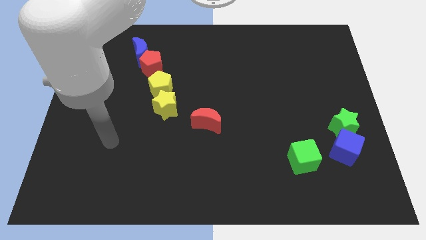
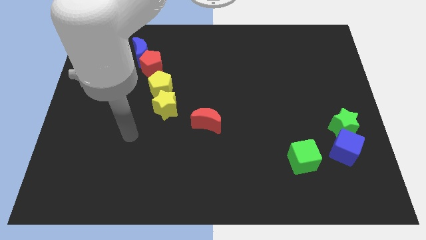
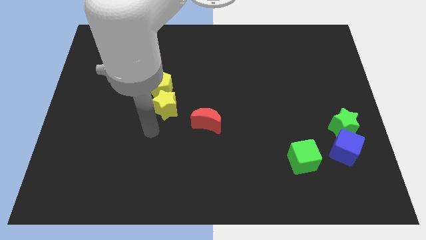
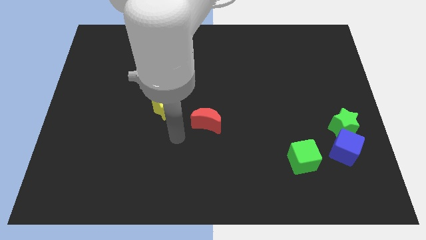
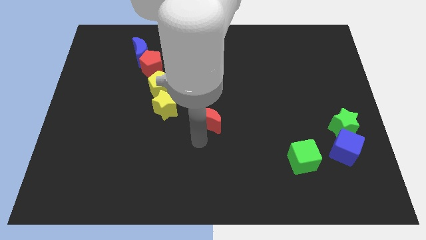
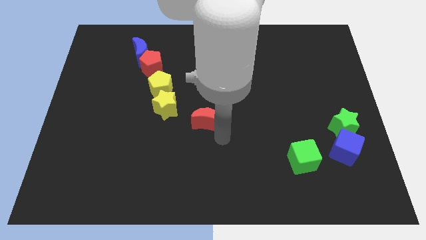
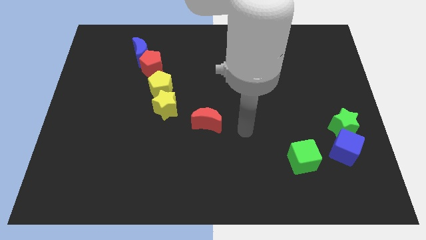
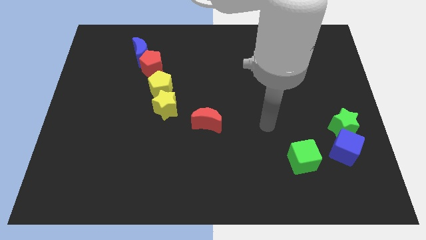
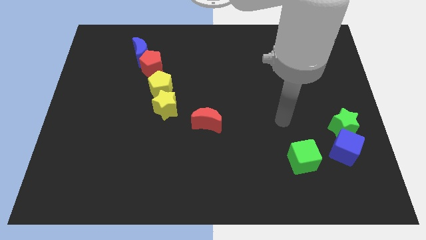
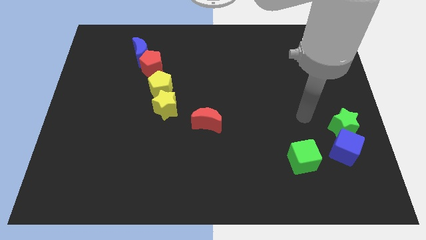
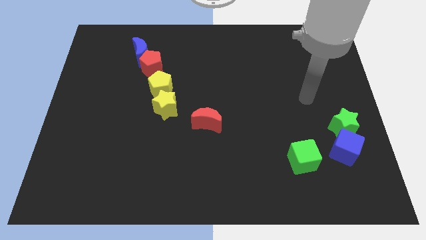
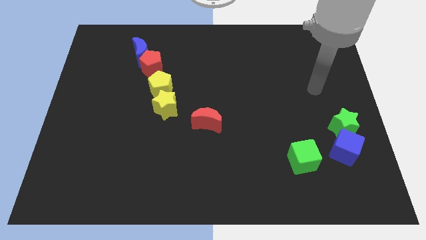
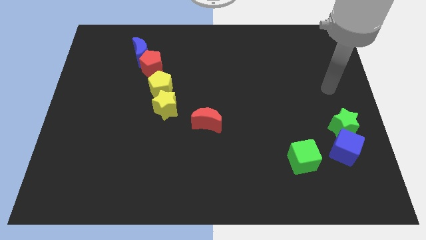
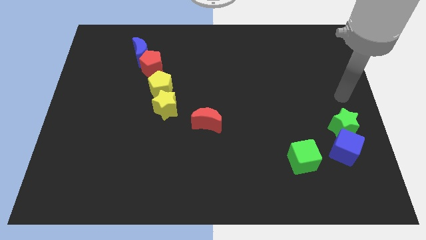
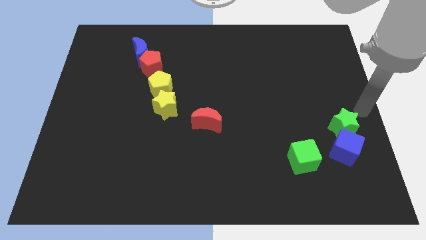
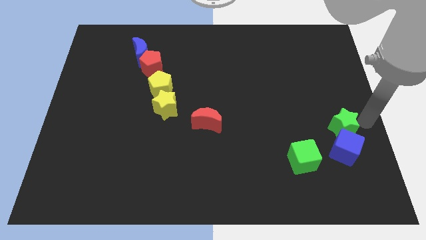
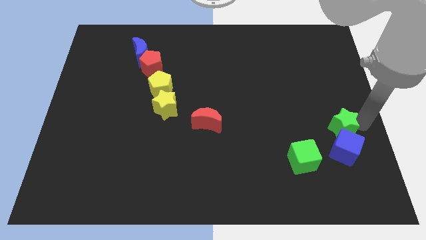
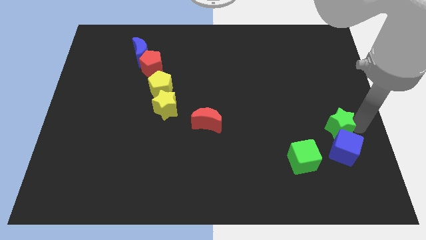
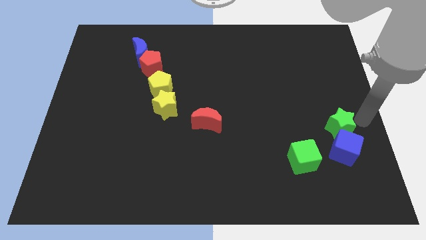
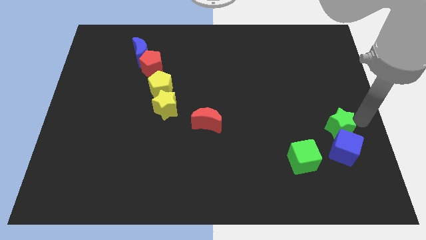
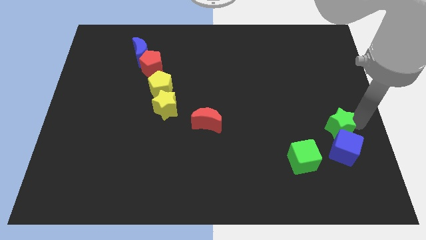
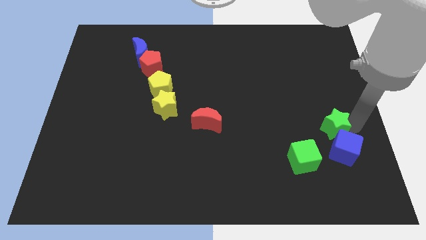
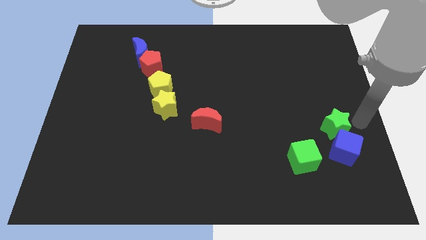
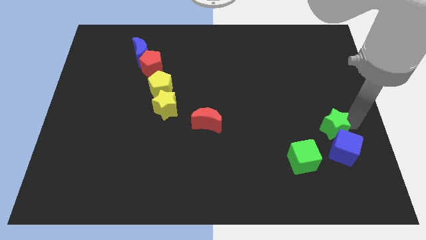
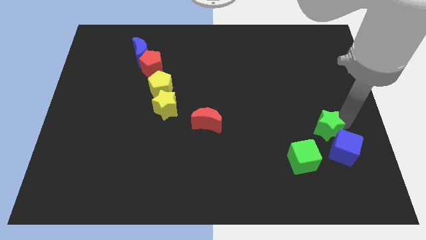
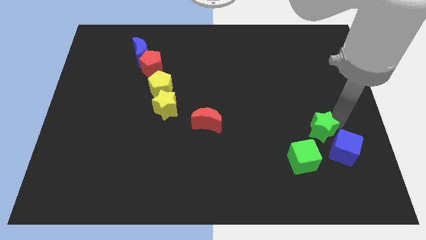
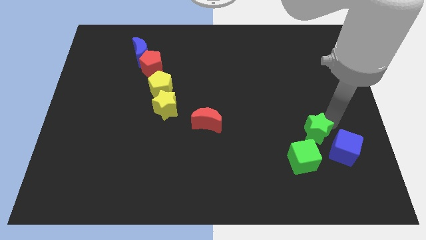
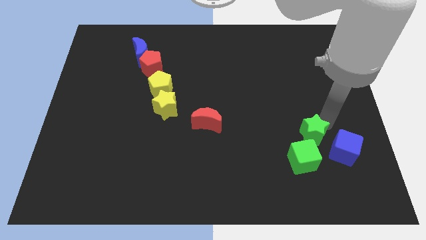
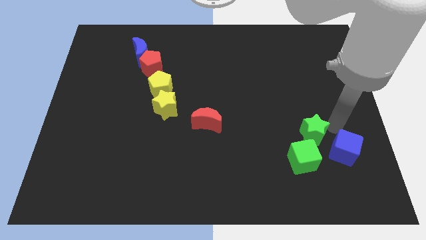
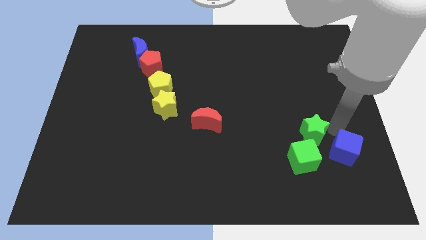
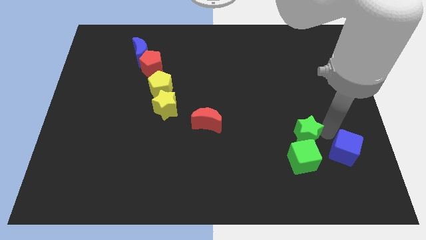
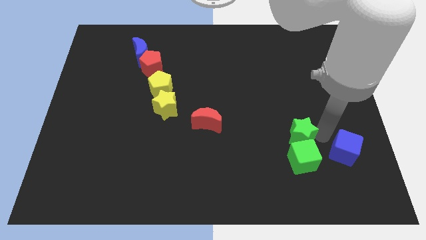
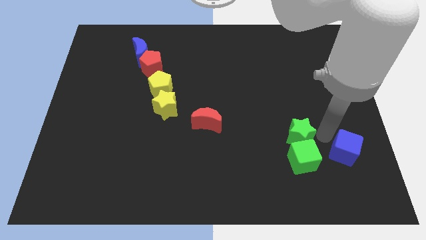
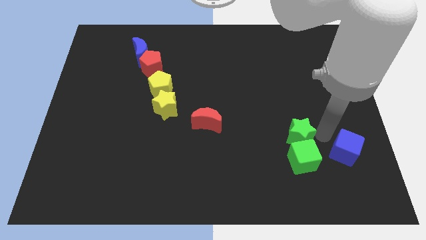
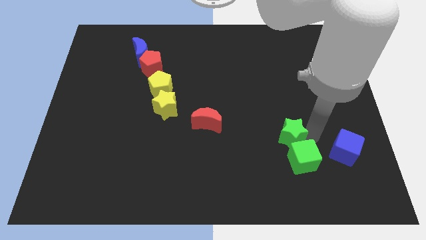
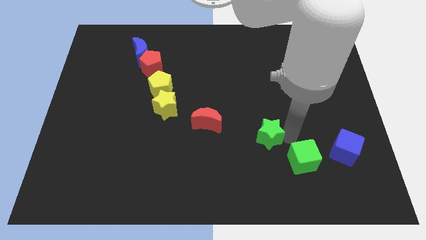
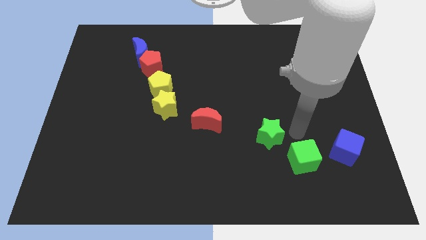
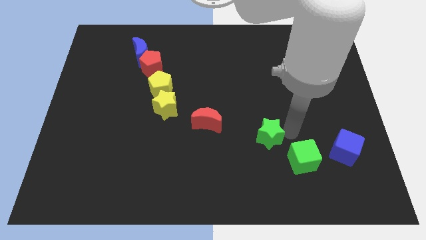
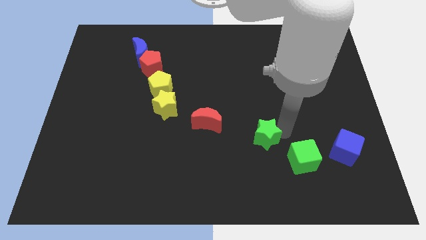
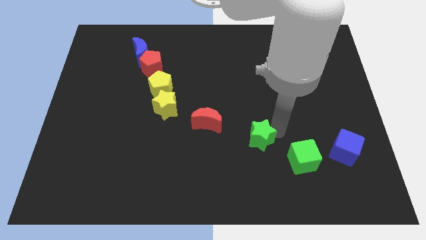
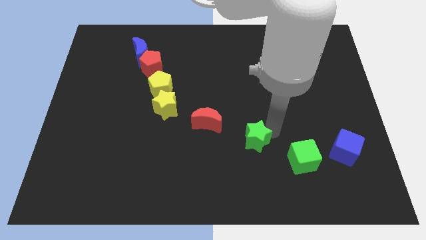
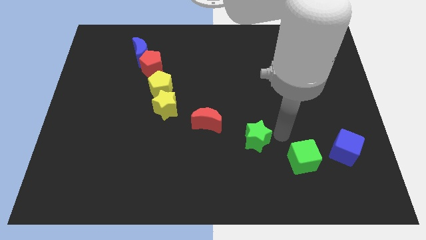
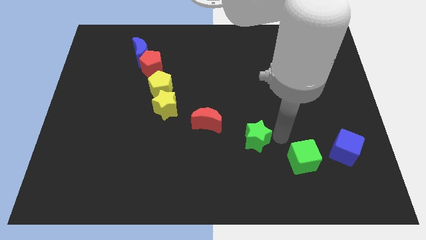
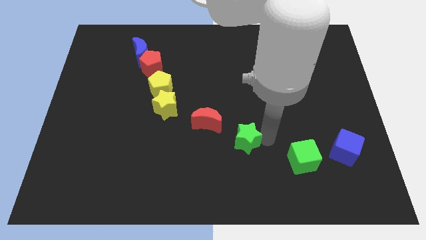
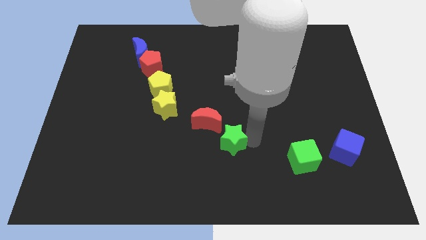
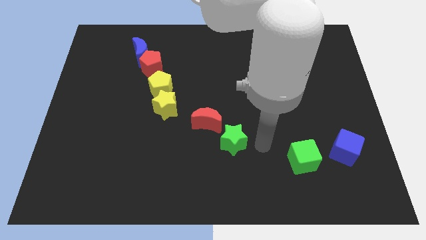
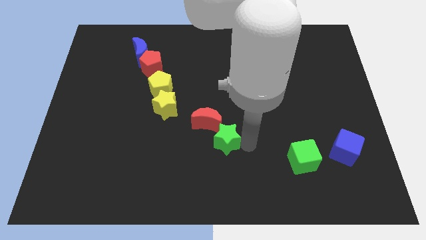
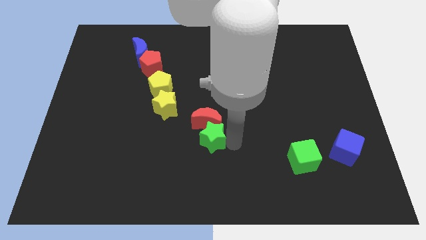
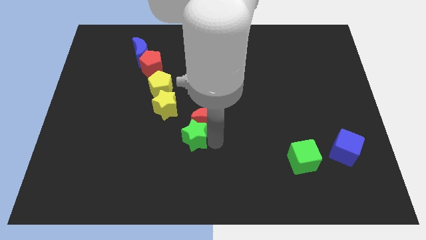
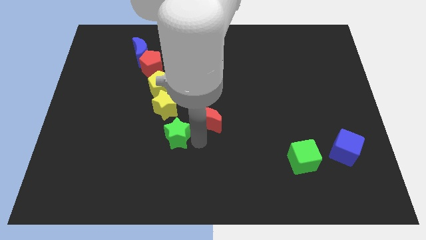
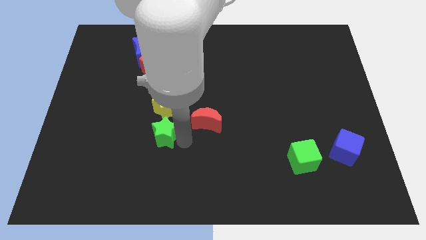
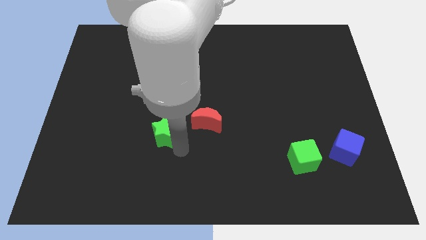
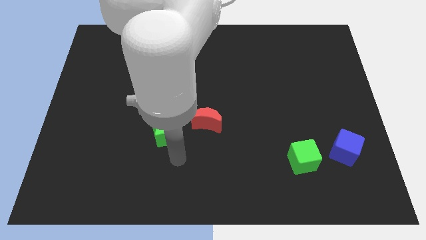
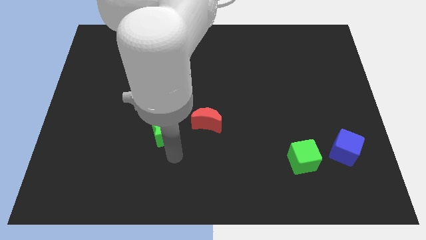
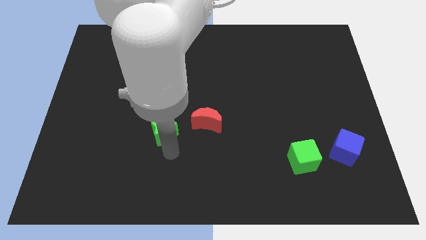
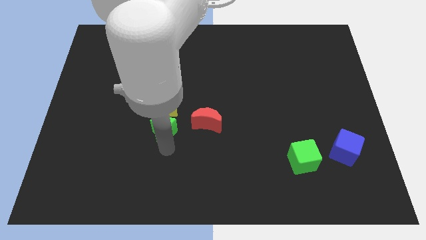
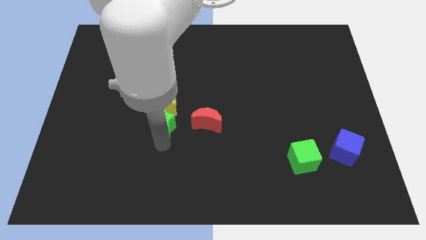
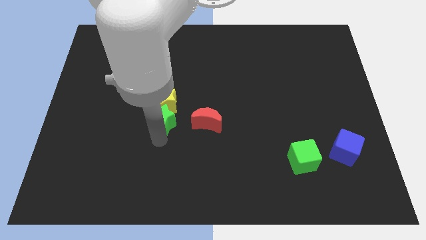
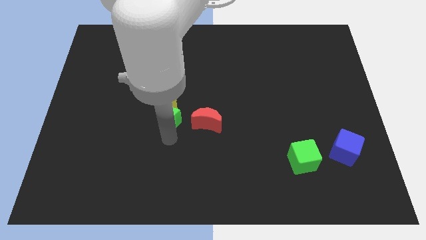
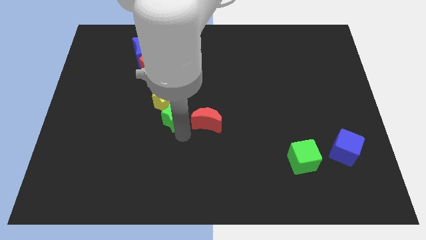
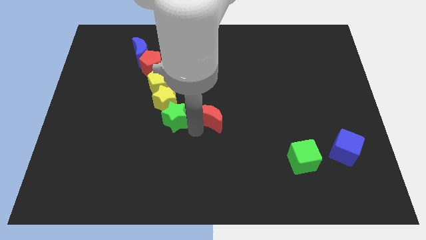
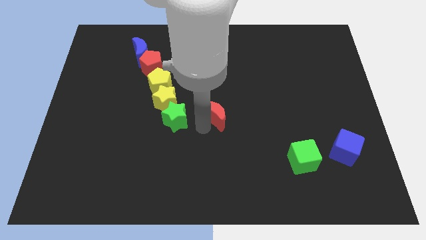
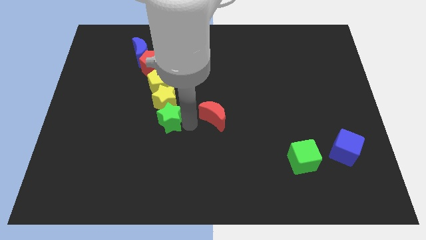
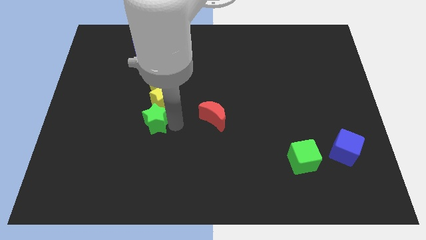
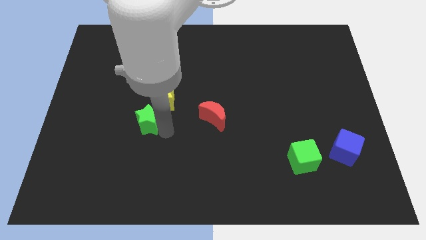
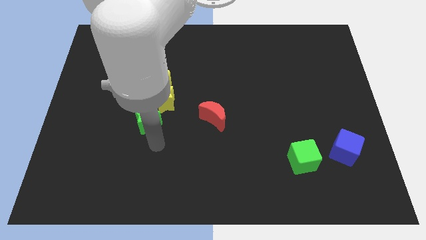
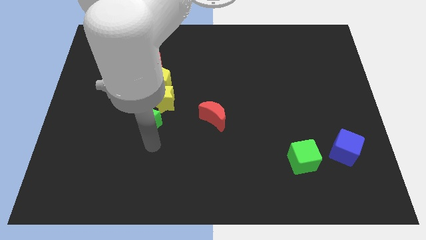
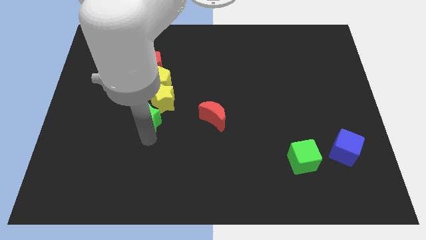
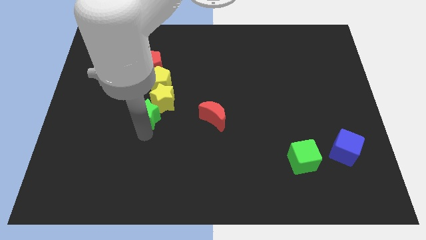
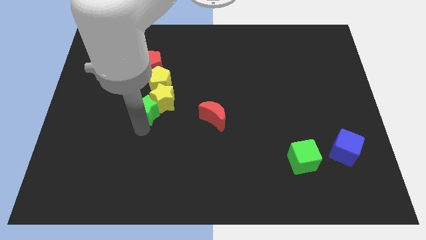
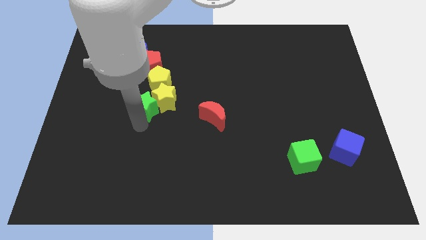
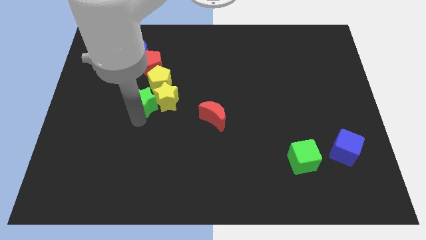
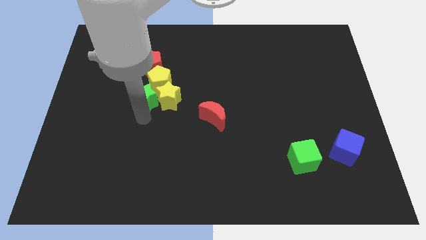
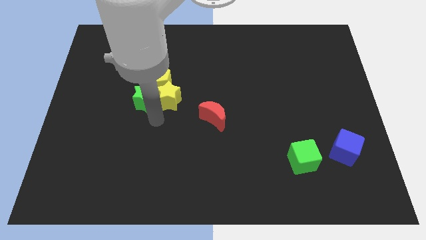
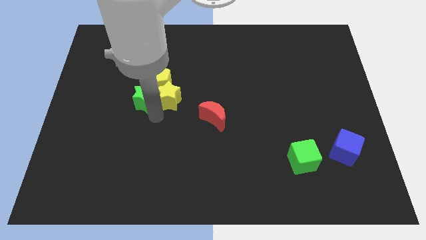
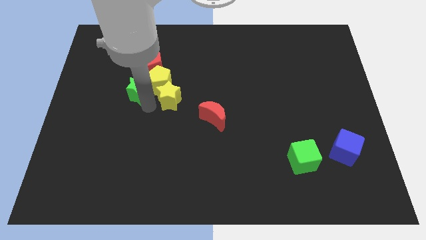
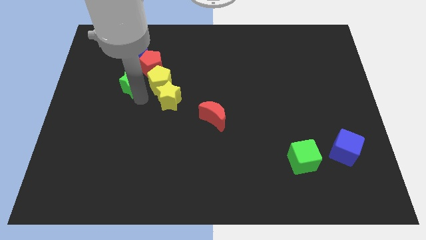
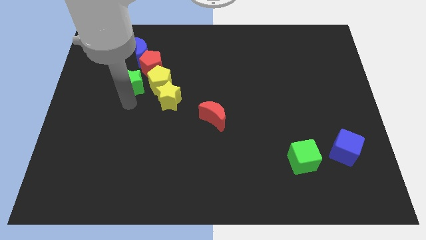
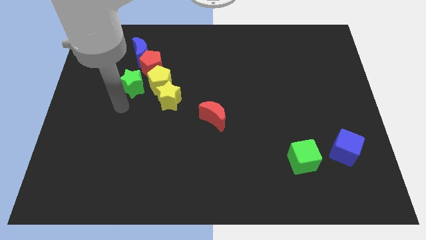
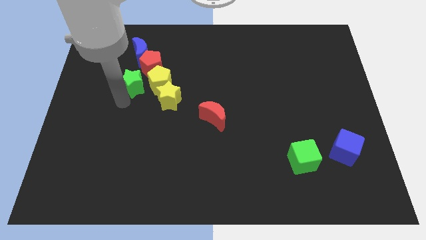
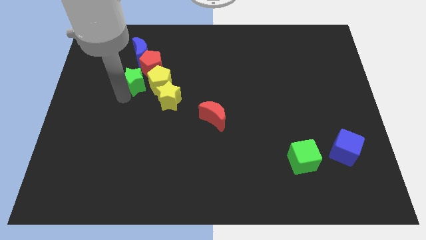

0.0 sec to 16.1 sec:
slide the green star diagonally up and to the left of the yellow pentagon
